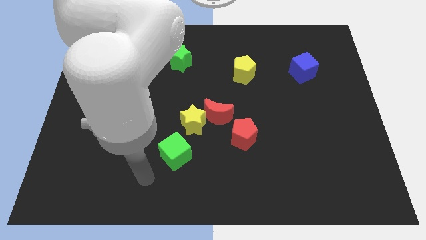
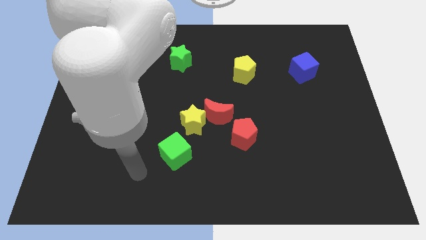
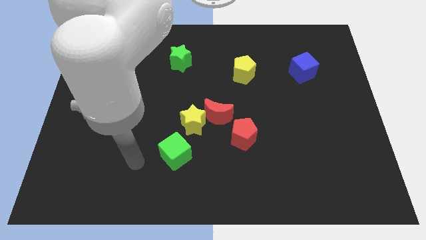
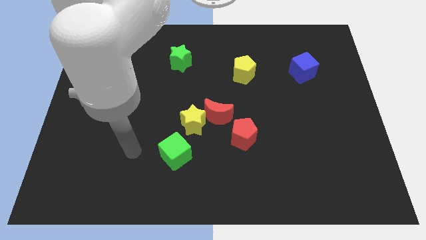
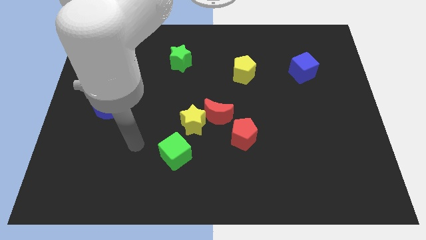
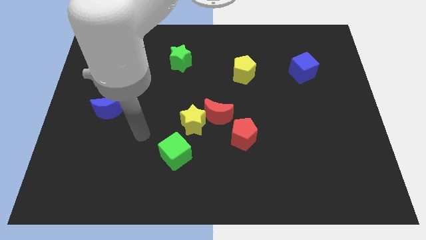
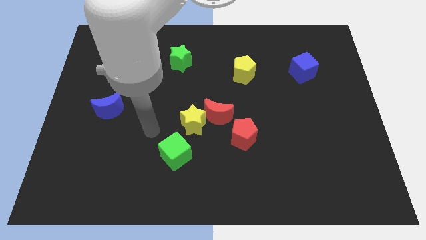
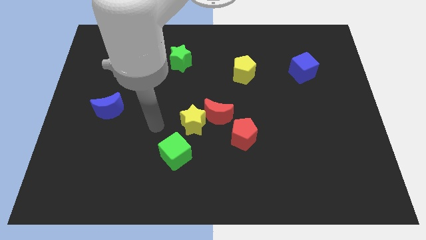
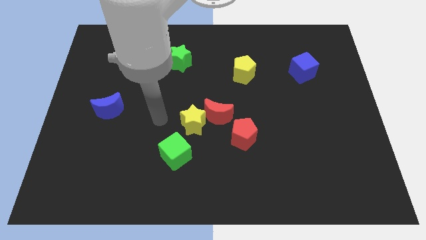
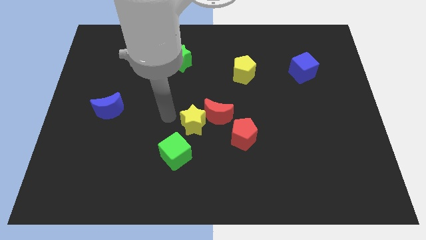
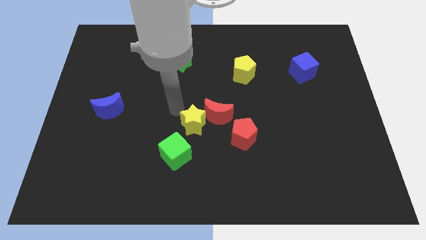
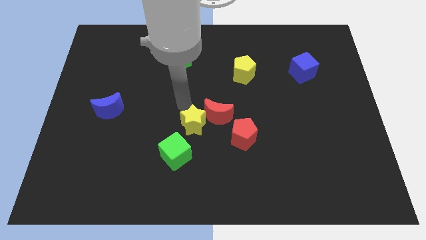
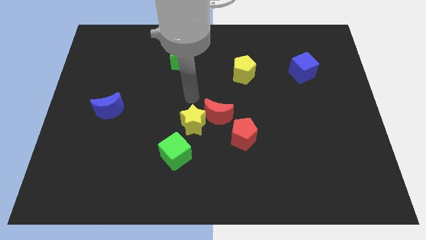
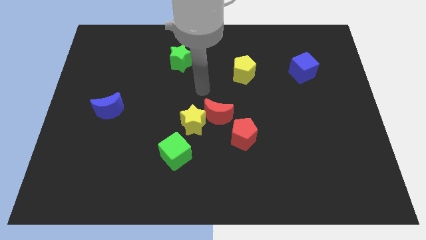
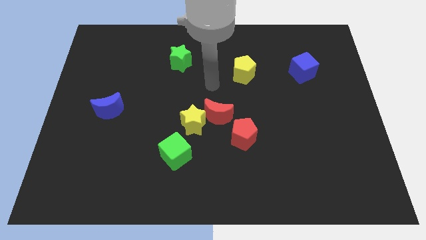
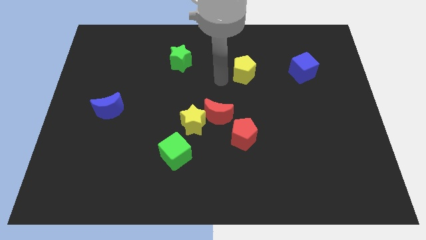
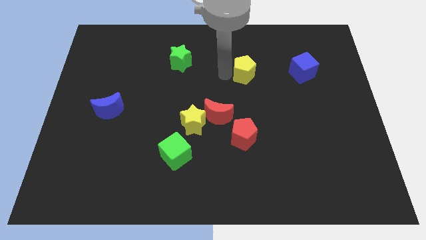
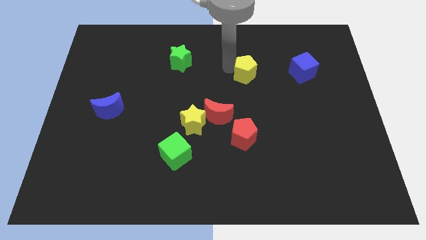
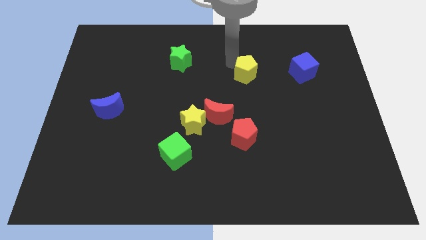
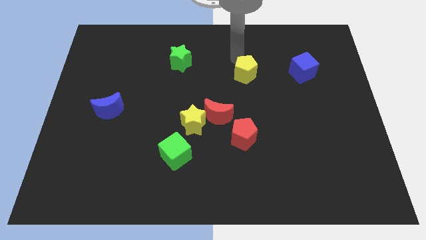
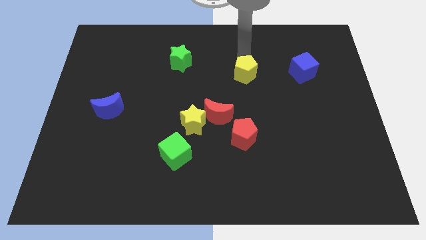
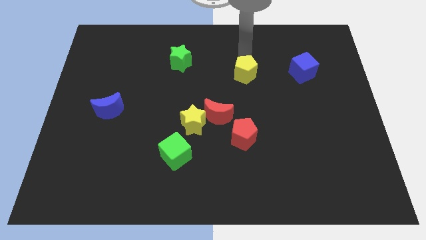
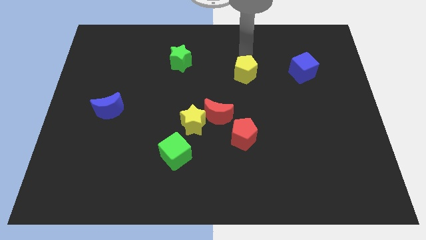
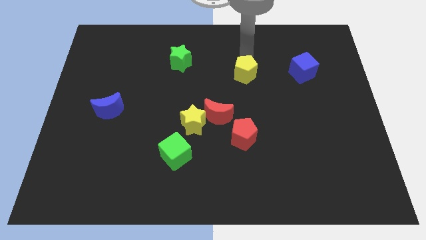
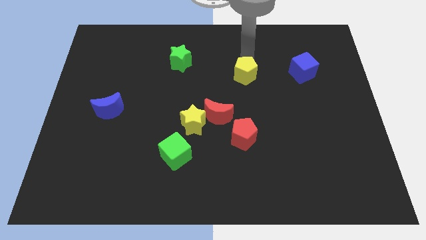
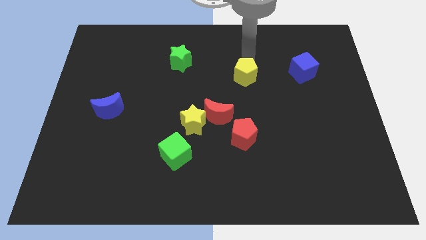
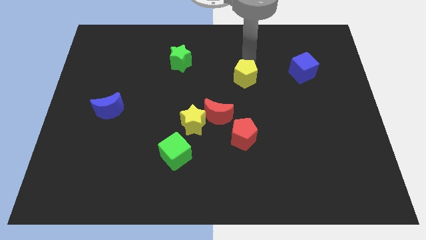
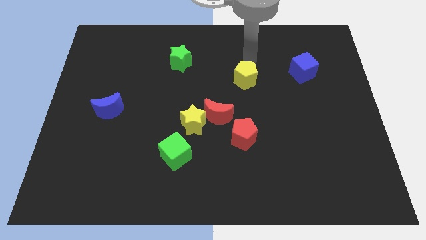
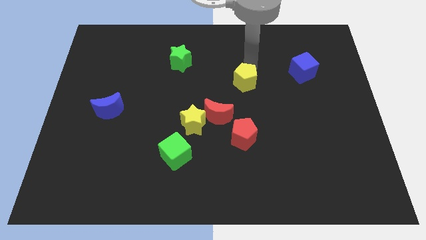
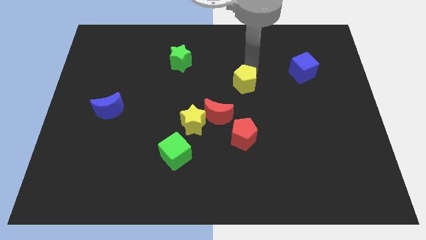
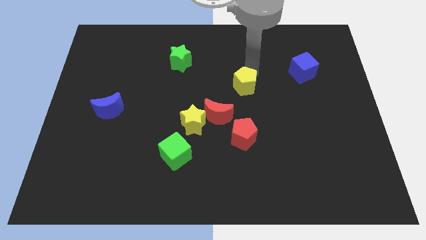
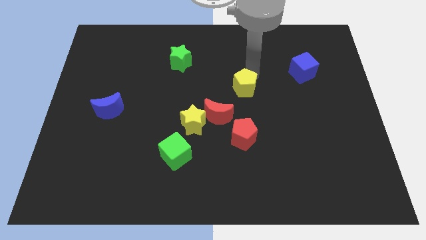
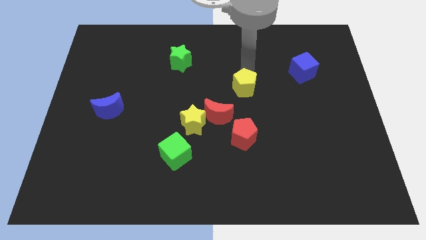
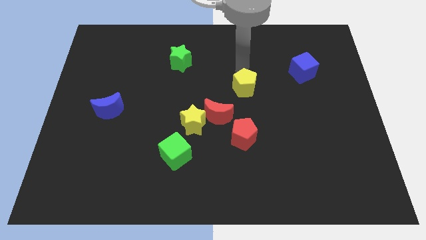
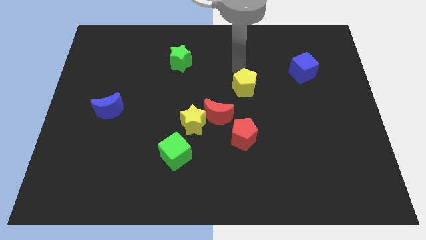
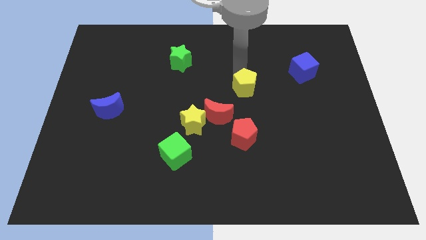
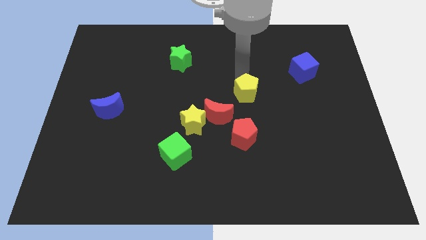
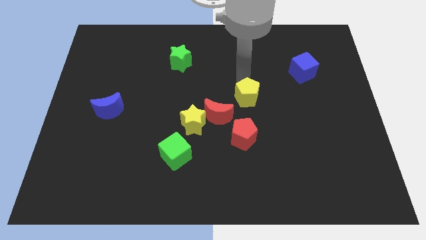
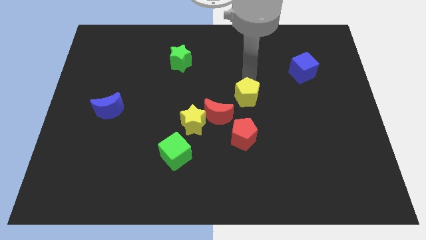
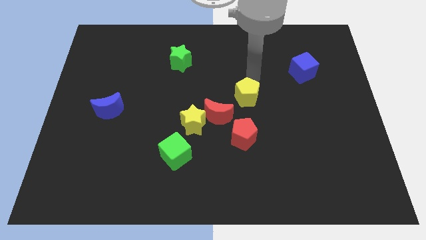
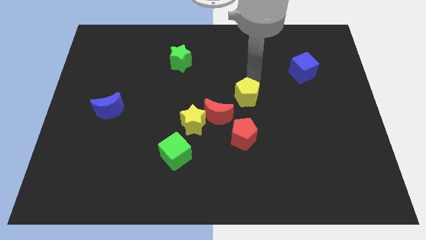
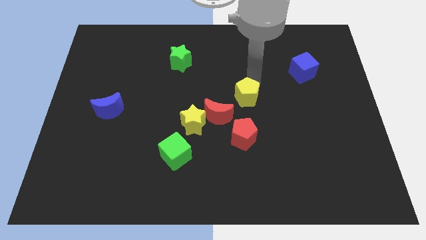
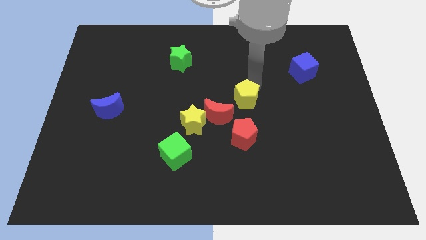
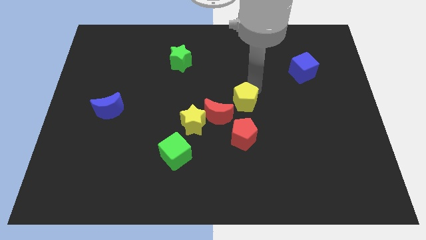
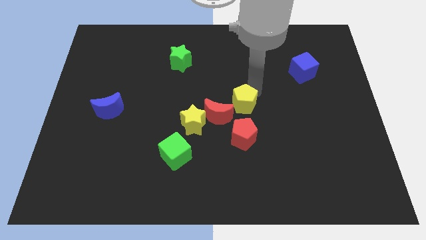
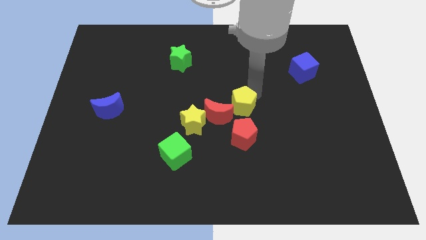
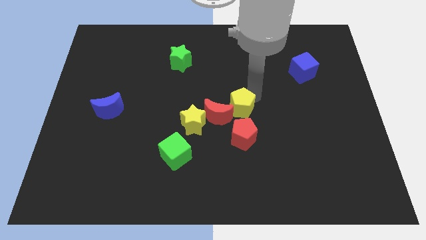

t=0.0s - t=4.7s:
move the yellow pentagon right of the yellow star

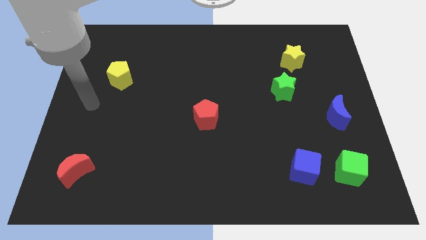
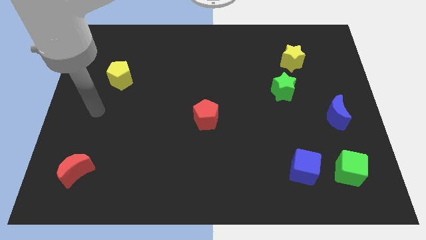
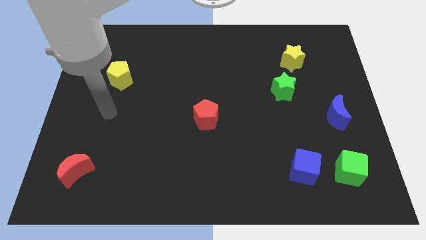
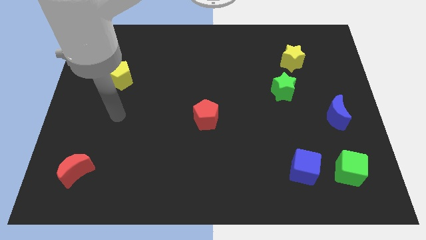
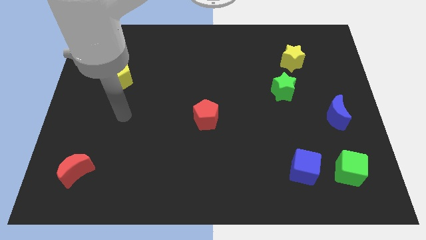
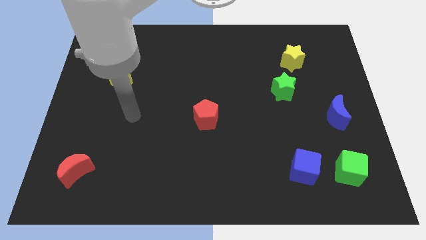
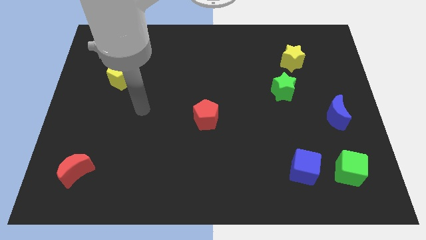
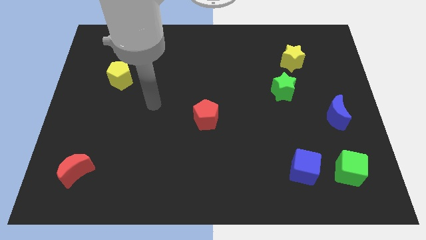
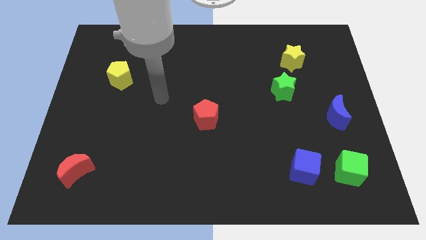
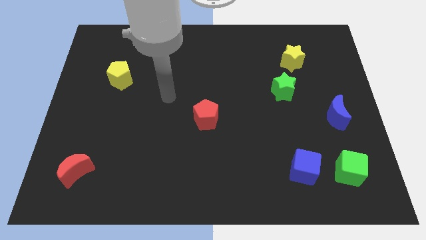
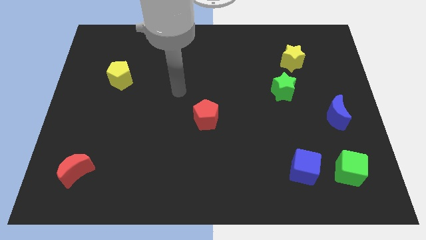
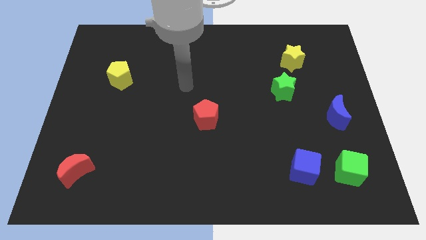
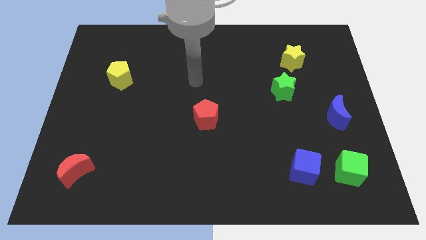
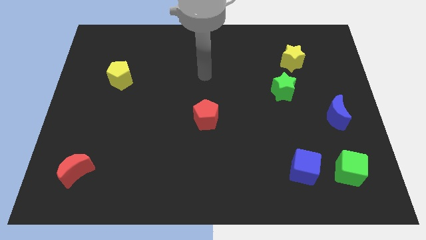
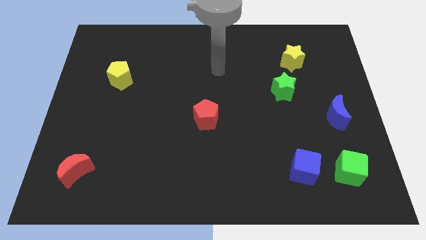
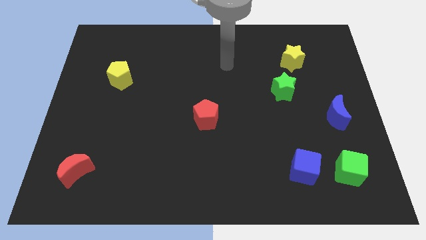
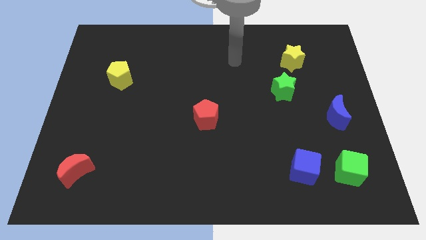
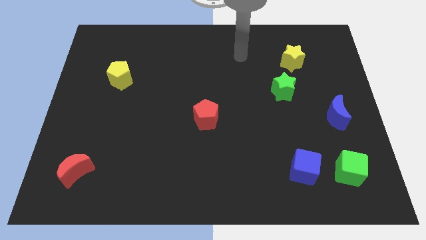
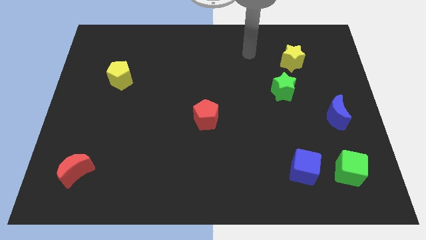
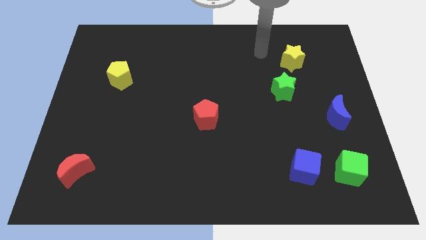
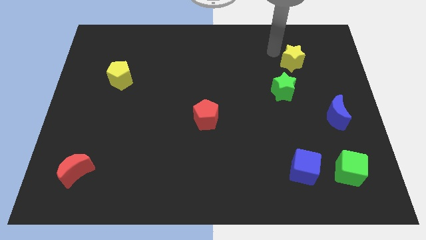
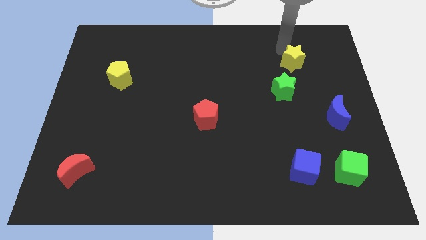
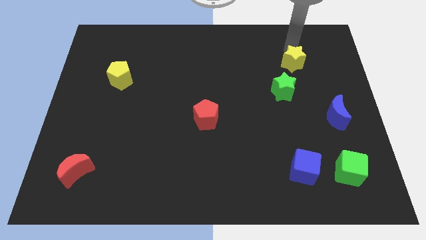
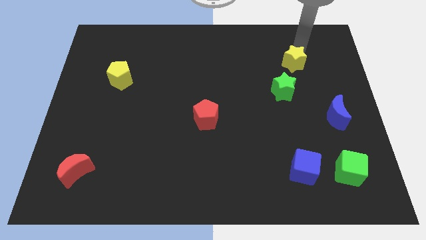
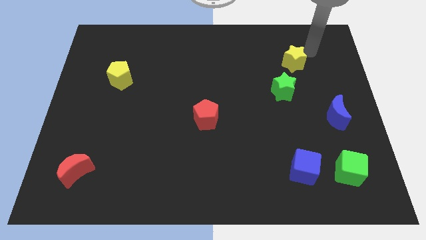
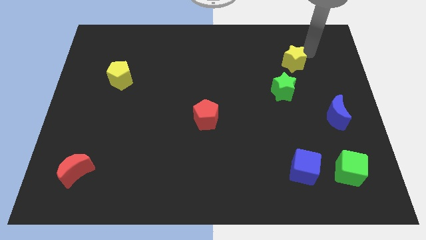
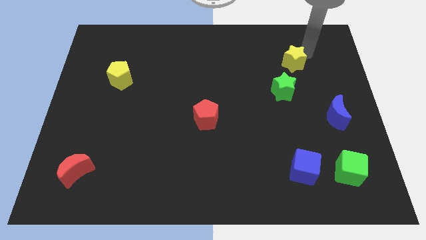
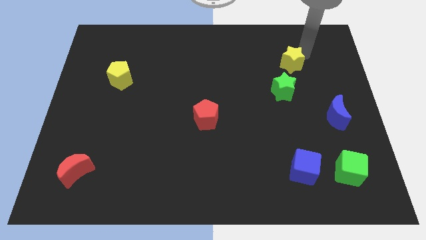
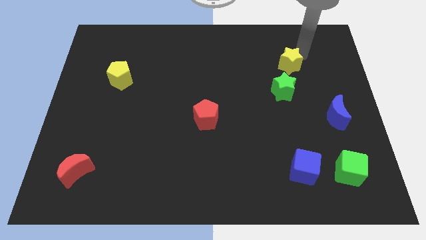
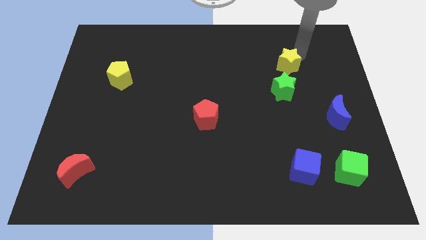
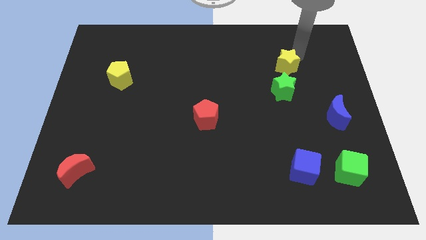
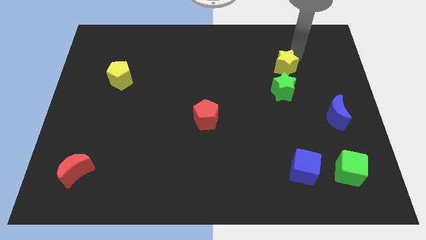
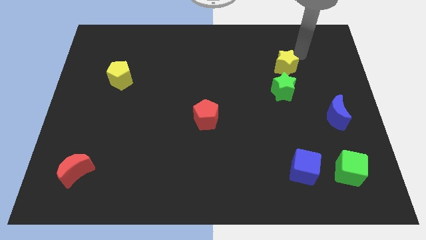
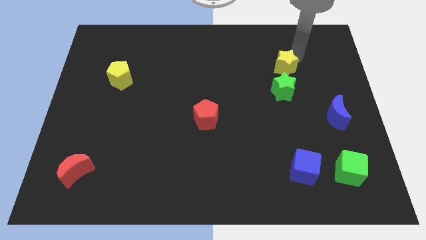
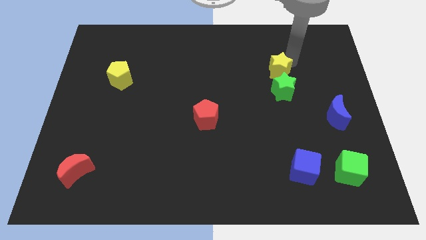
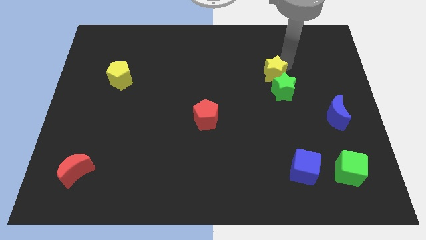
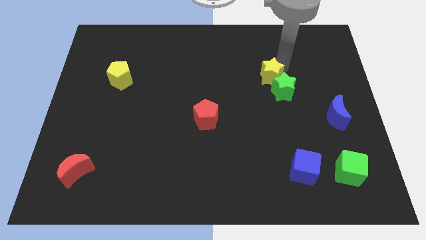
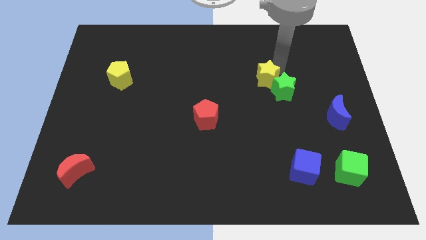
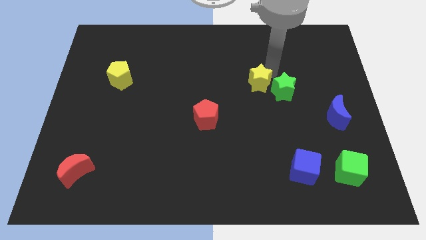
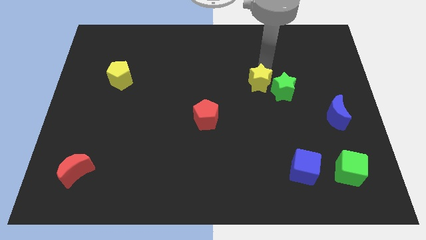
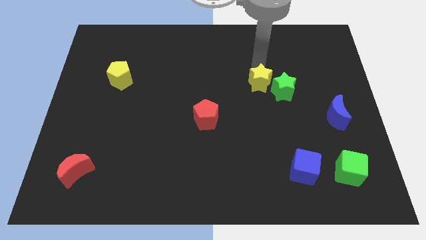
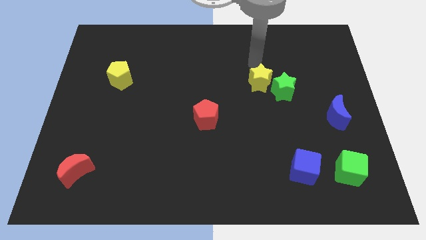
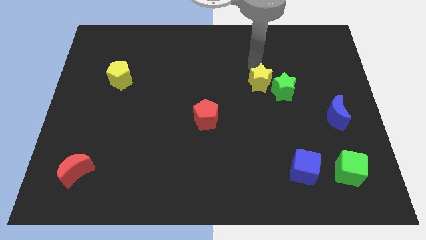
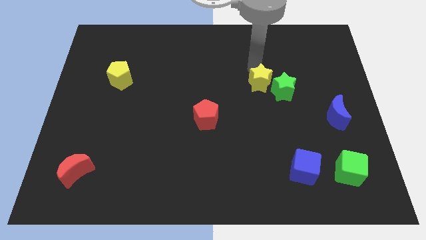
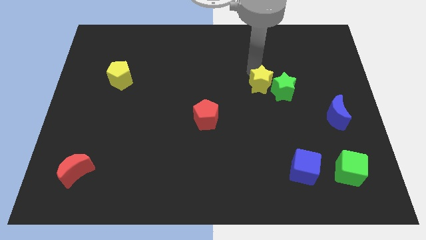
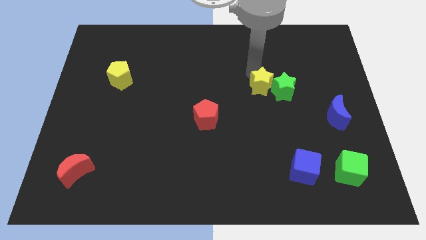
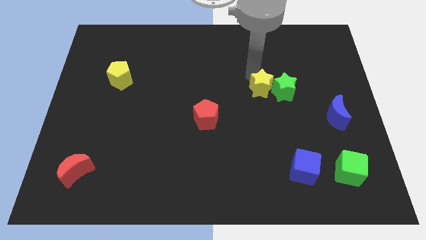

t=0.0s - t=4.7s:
move the yellow star diagonally down and to the left of the green star
